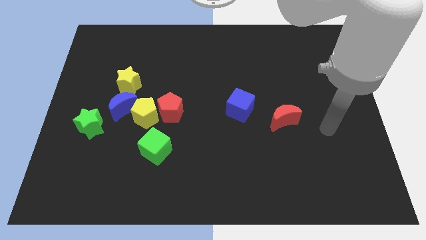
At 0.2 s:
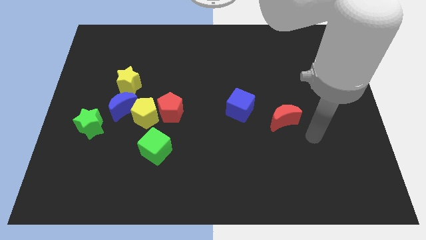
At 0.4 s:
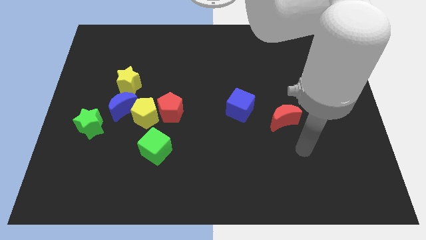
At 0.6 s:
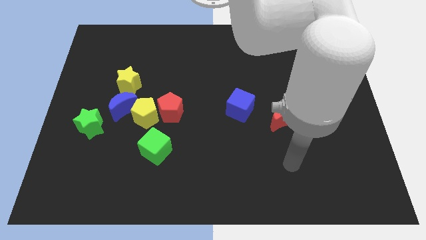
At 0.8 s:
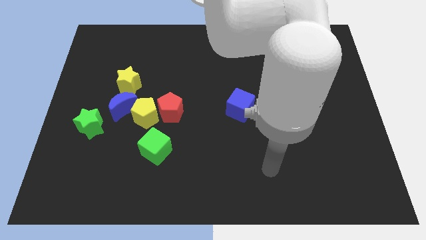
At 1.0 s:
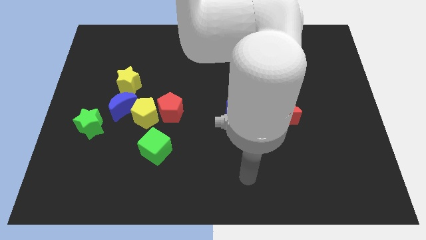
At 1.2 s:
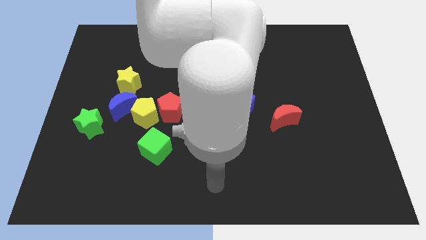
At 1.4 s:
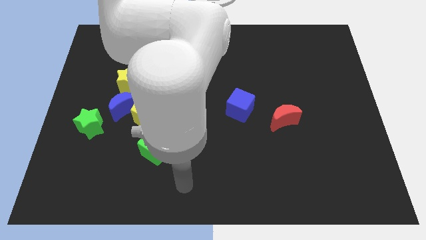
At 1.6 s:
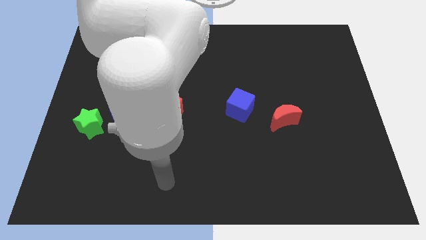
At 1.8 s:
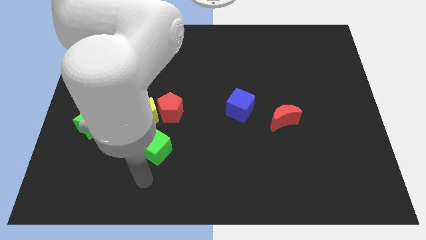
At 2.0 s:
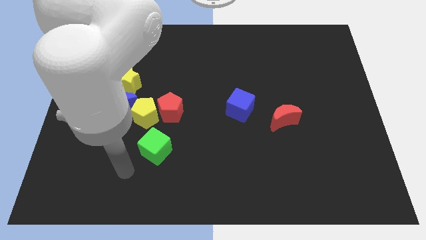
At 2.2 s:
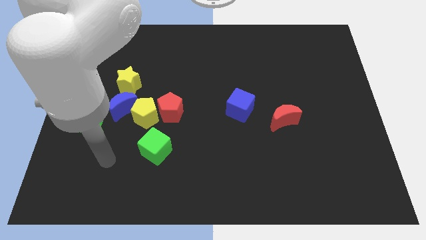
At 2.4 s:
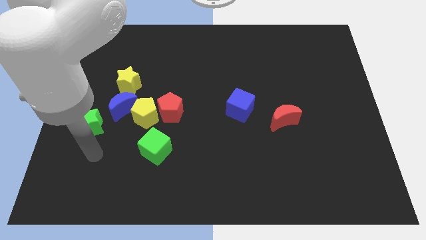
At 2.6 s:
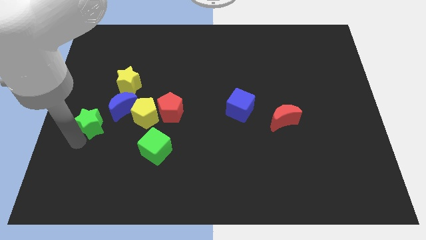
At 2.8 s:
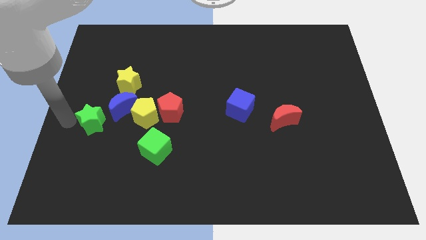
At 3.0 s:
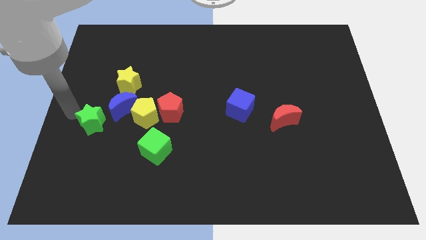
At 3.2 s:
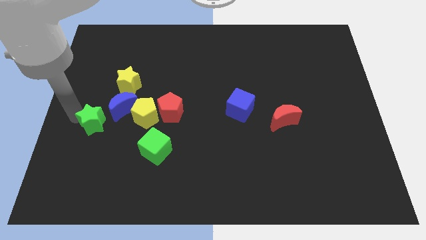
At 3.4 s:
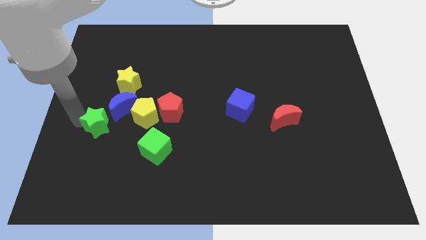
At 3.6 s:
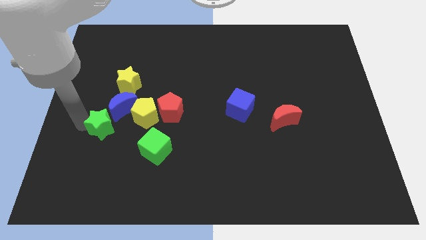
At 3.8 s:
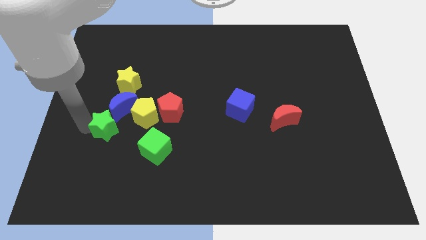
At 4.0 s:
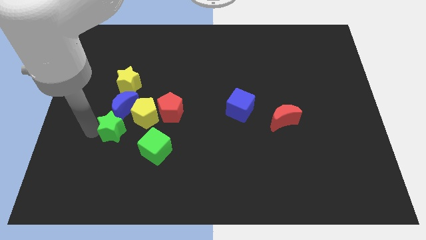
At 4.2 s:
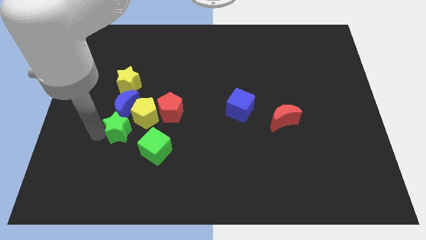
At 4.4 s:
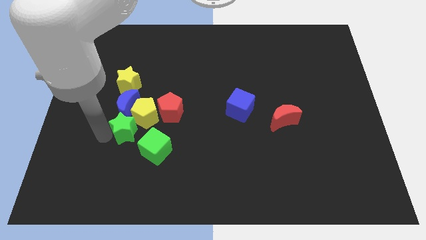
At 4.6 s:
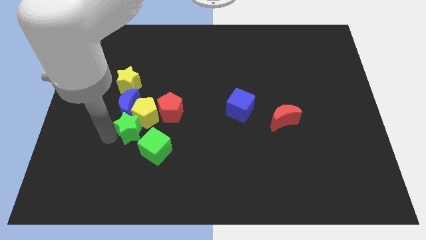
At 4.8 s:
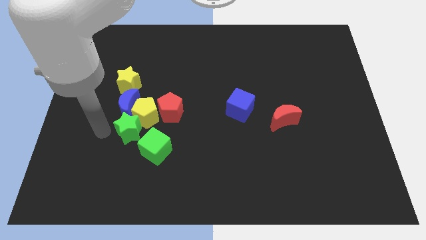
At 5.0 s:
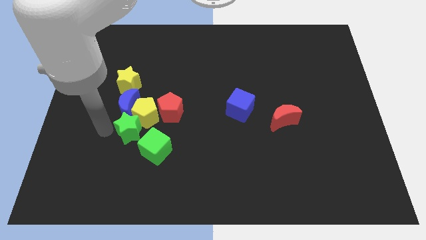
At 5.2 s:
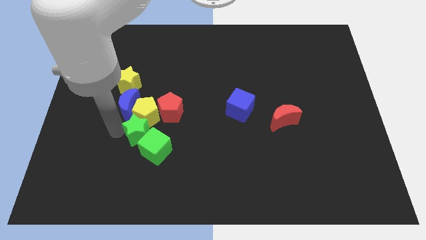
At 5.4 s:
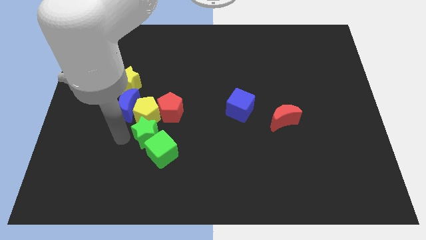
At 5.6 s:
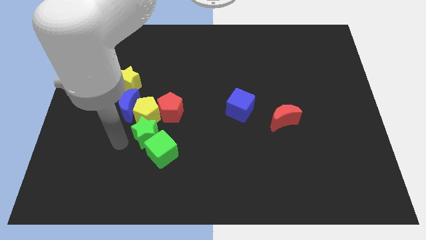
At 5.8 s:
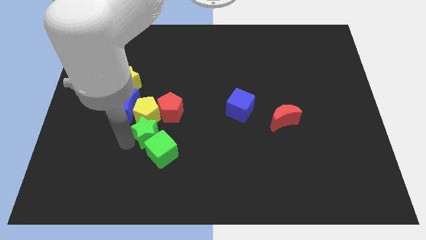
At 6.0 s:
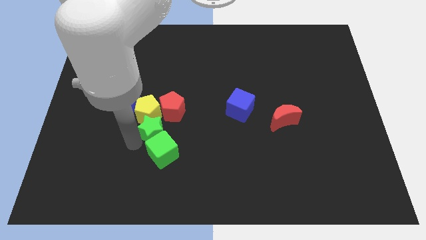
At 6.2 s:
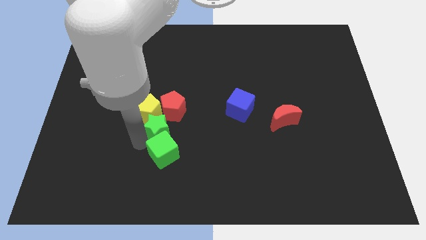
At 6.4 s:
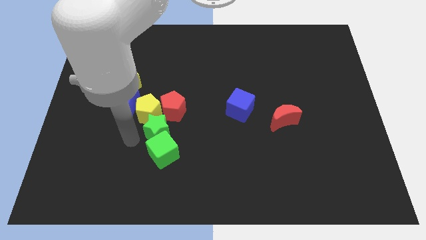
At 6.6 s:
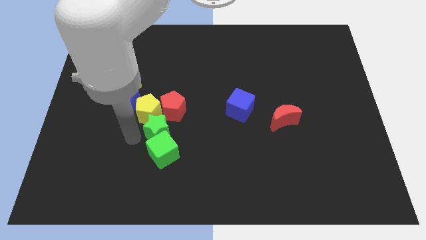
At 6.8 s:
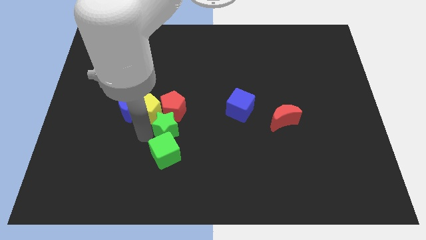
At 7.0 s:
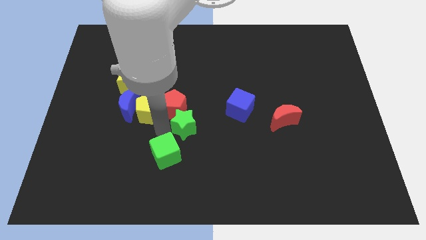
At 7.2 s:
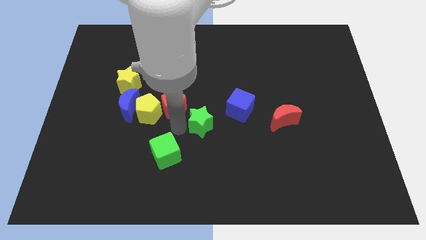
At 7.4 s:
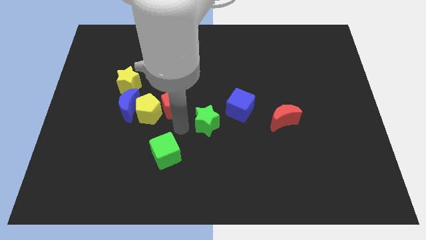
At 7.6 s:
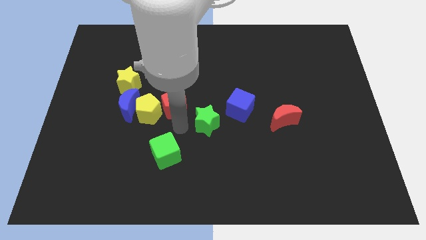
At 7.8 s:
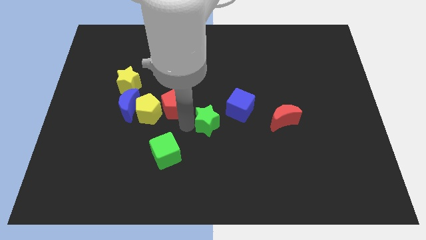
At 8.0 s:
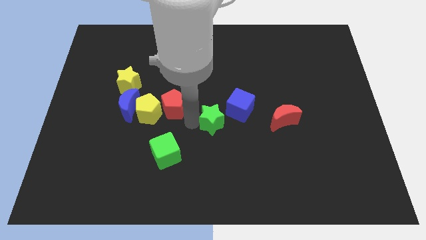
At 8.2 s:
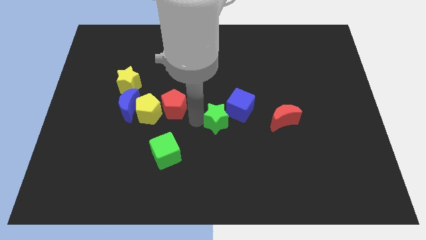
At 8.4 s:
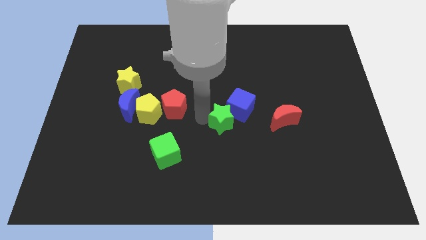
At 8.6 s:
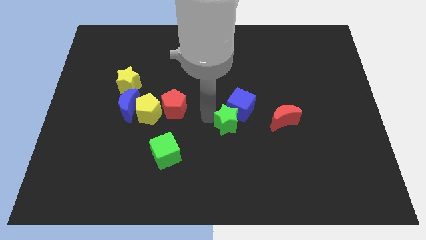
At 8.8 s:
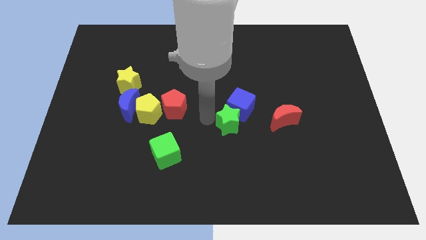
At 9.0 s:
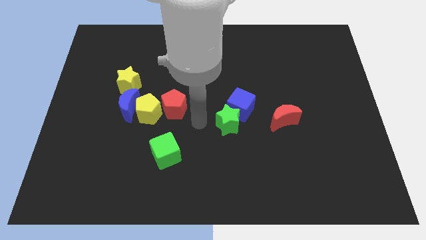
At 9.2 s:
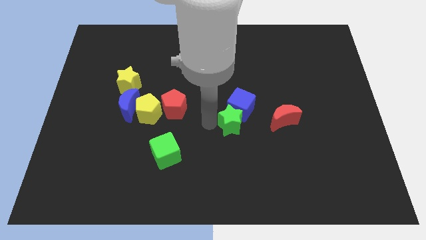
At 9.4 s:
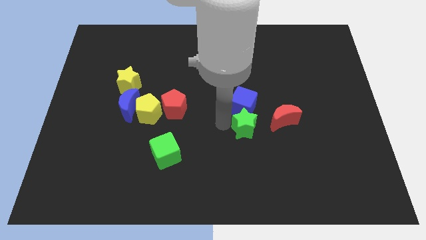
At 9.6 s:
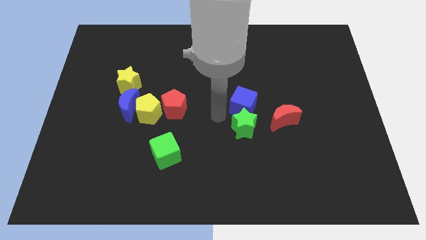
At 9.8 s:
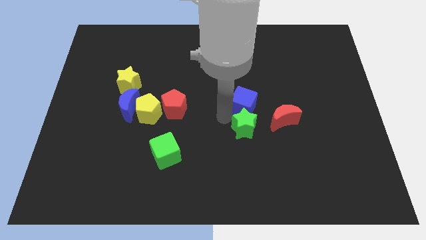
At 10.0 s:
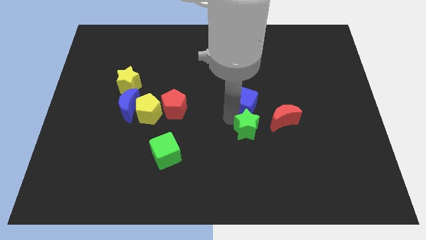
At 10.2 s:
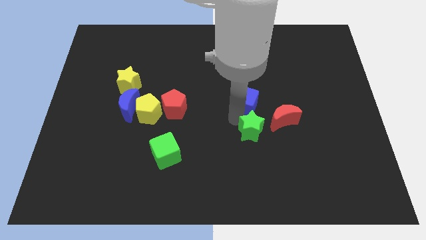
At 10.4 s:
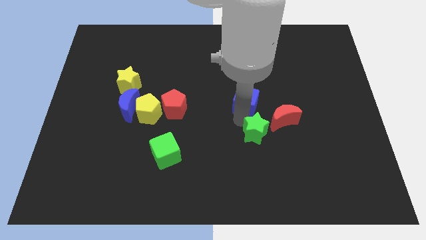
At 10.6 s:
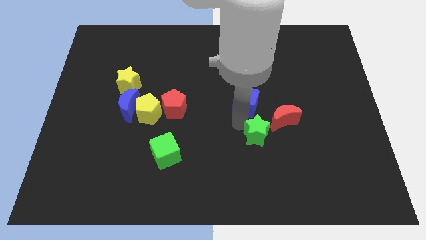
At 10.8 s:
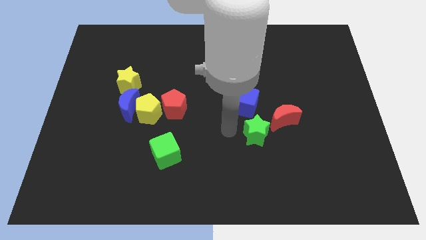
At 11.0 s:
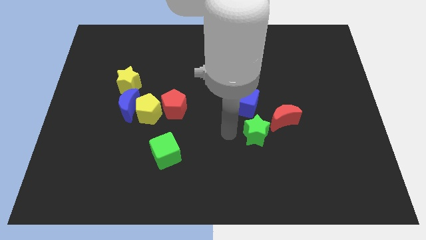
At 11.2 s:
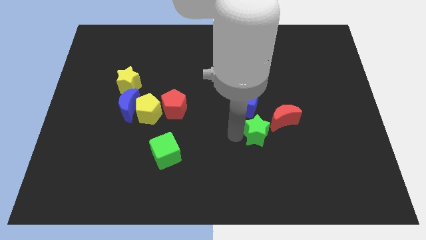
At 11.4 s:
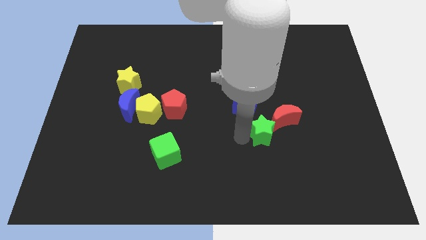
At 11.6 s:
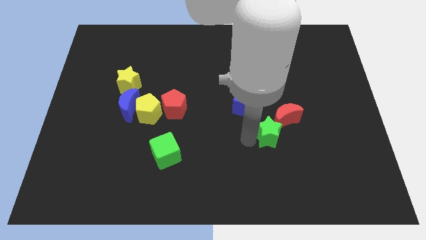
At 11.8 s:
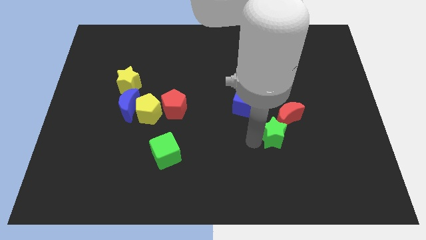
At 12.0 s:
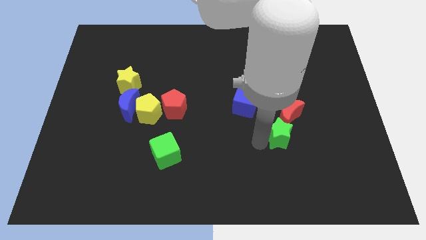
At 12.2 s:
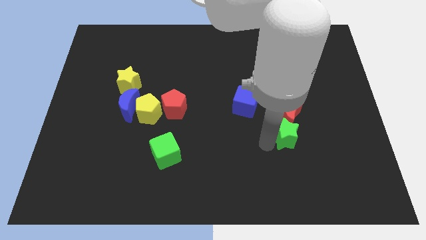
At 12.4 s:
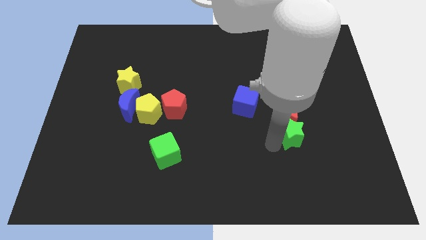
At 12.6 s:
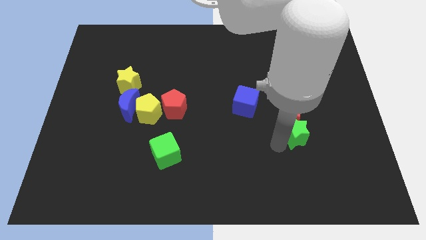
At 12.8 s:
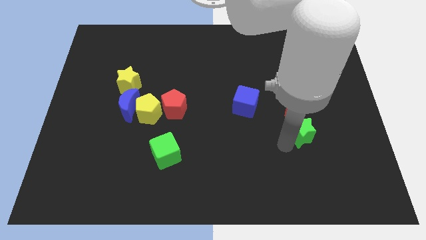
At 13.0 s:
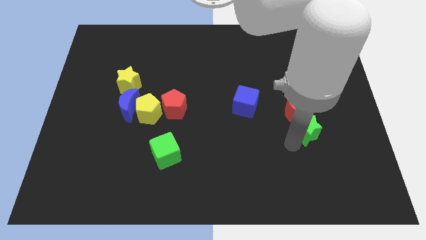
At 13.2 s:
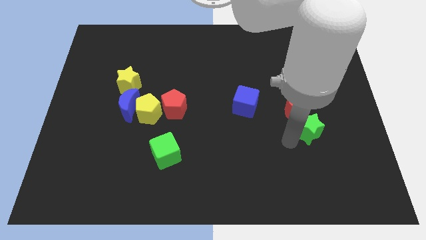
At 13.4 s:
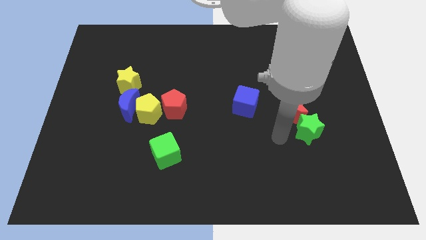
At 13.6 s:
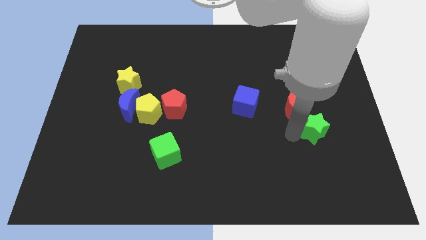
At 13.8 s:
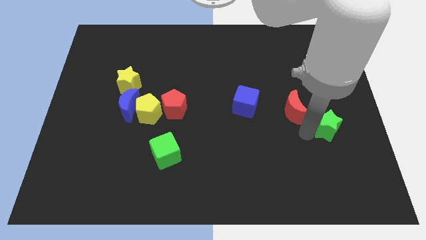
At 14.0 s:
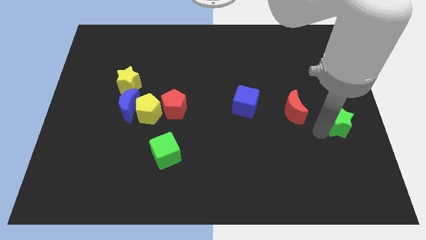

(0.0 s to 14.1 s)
put the green star to the center right

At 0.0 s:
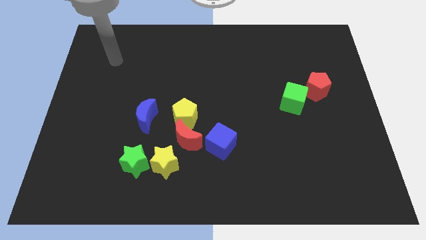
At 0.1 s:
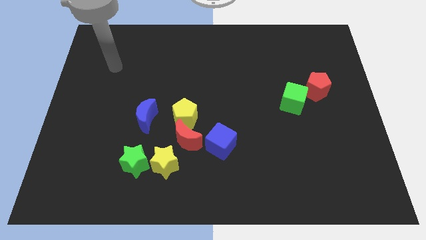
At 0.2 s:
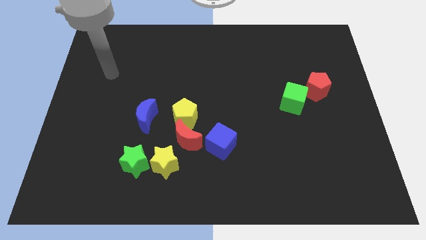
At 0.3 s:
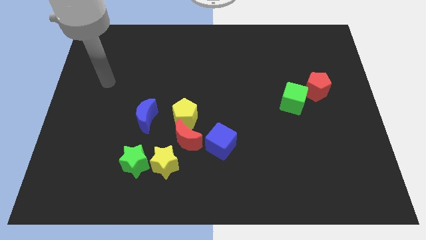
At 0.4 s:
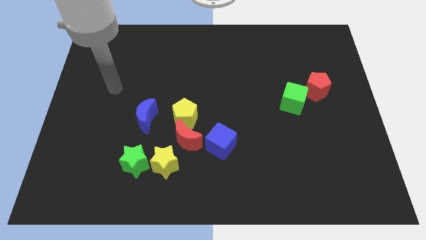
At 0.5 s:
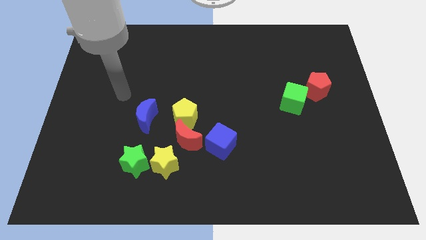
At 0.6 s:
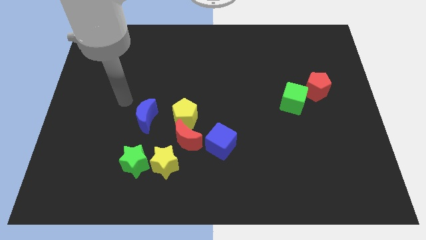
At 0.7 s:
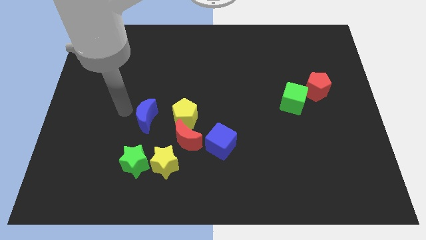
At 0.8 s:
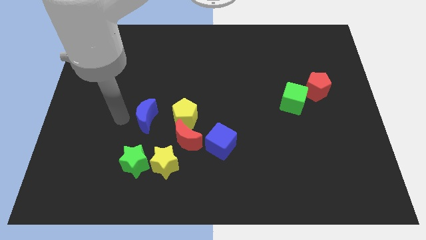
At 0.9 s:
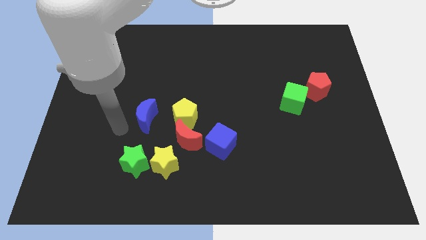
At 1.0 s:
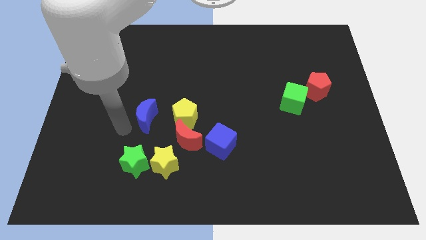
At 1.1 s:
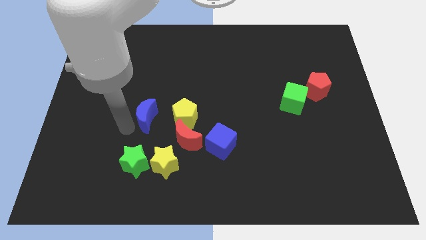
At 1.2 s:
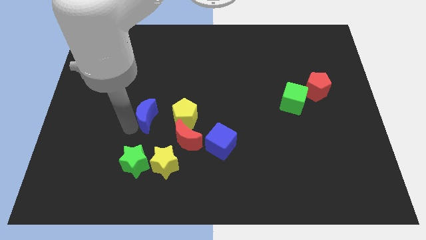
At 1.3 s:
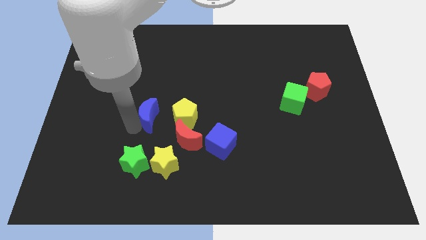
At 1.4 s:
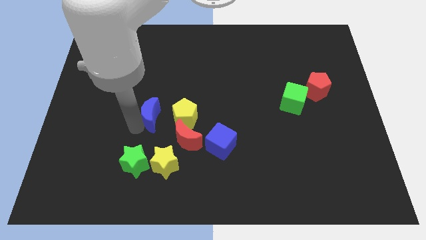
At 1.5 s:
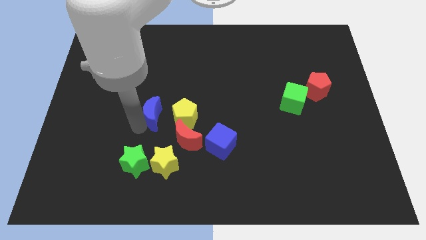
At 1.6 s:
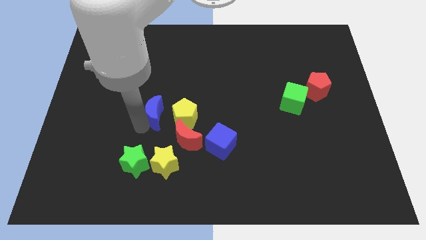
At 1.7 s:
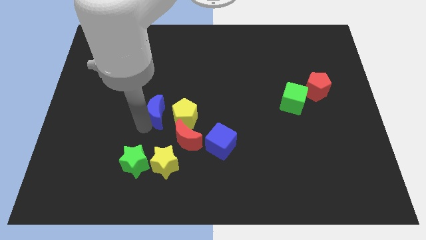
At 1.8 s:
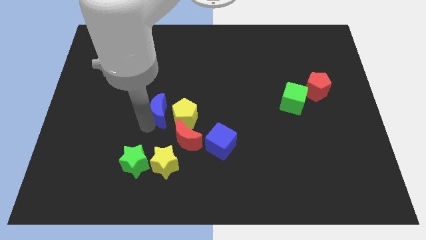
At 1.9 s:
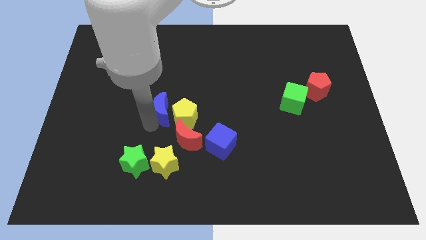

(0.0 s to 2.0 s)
put the blue moon to the center
